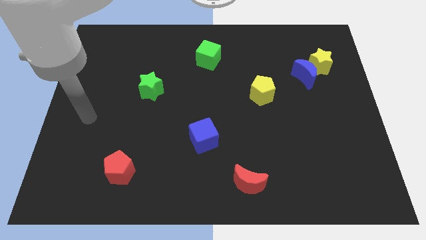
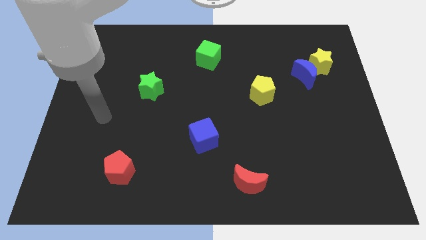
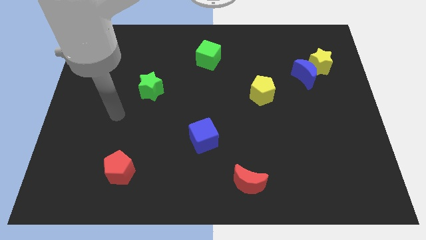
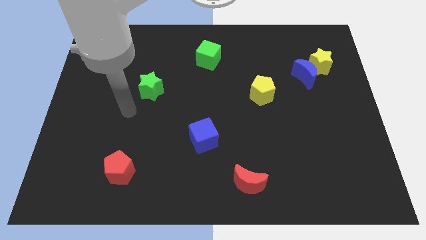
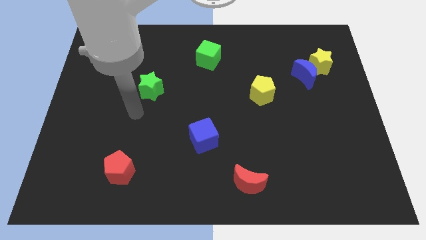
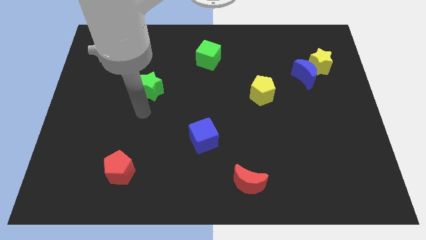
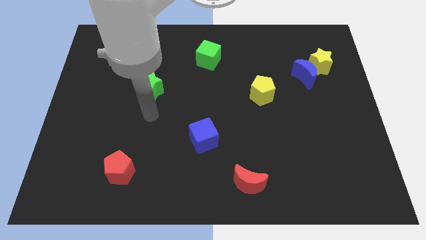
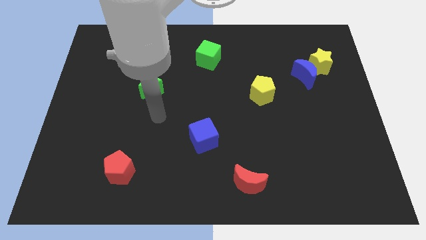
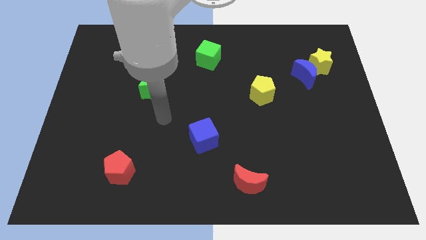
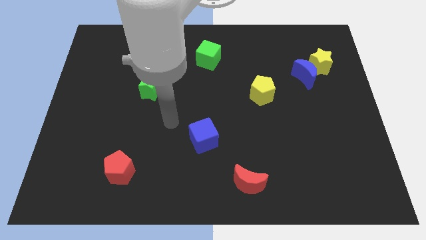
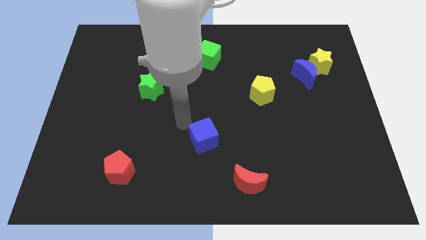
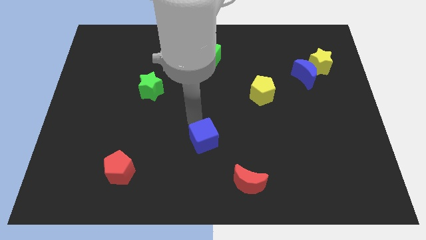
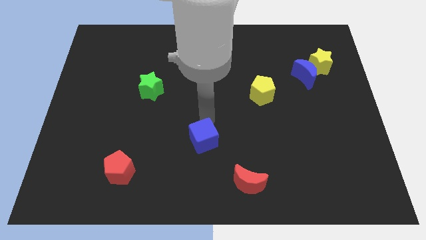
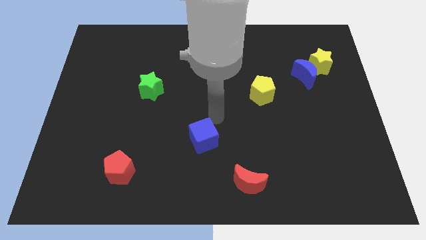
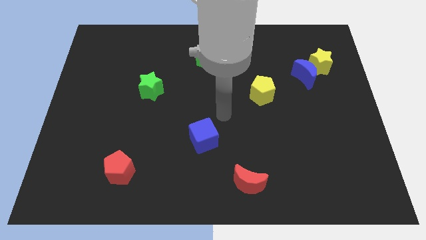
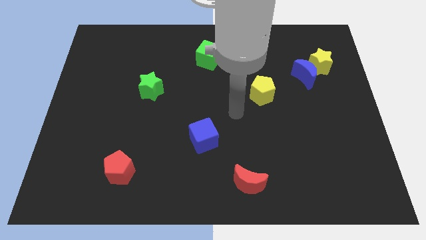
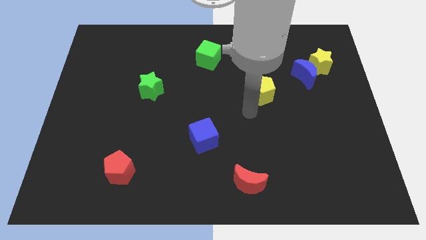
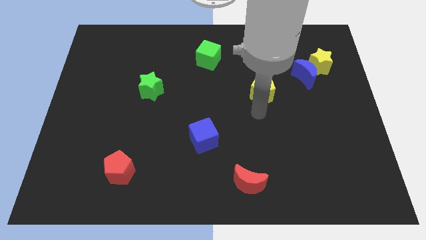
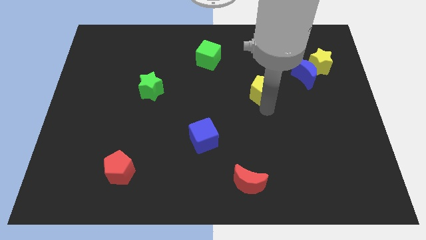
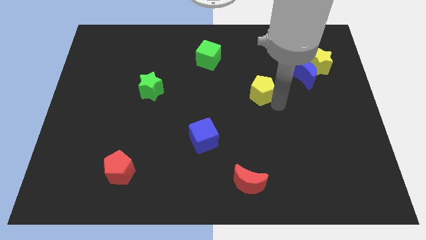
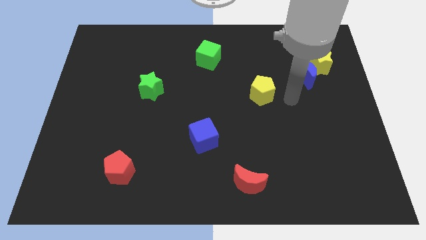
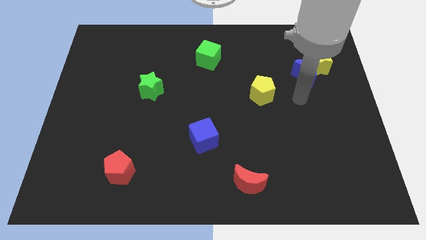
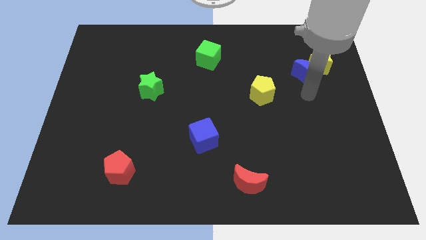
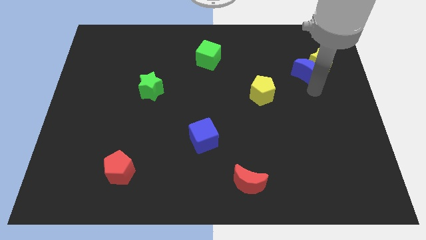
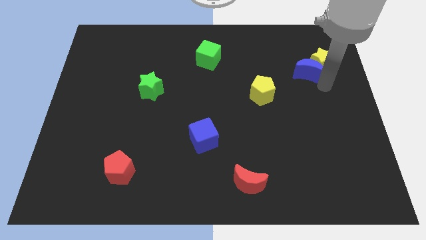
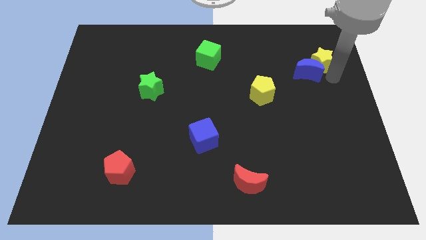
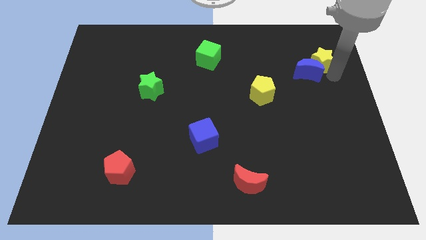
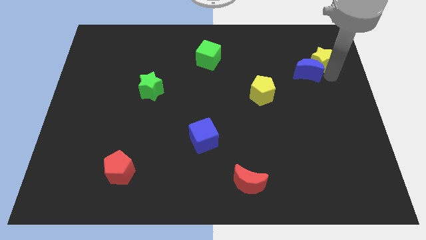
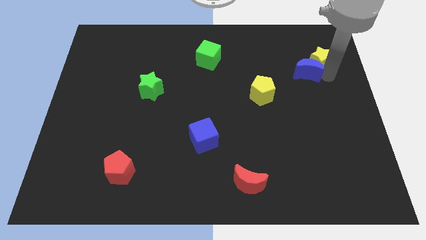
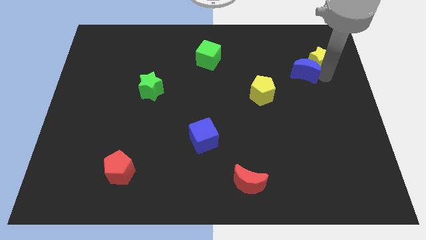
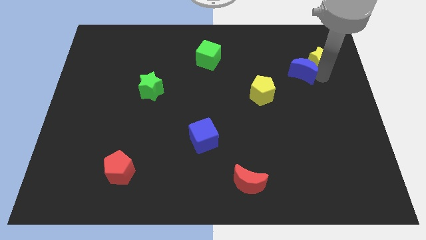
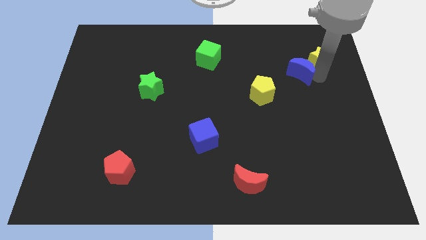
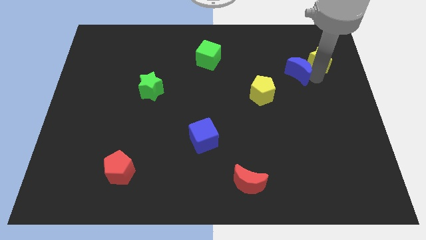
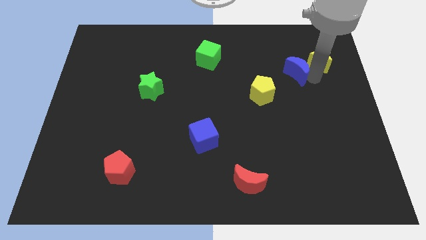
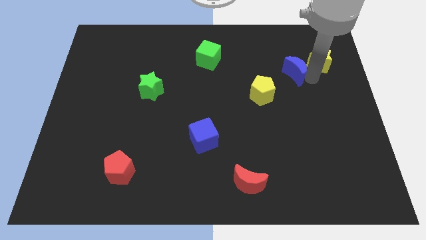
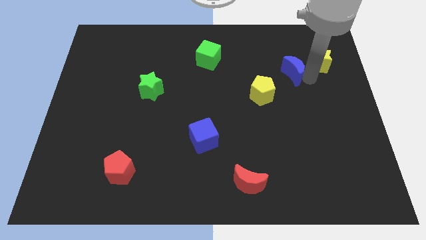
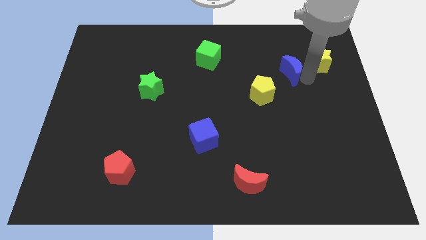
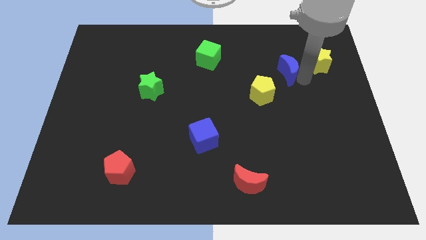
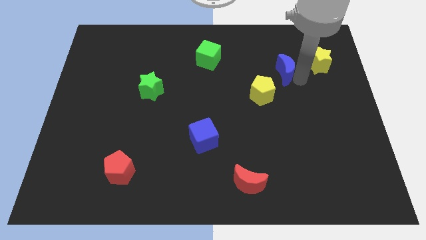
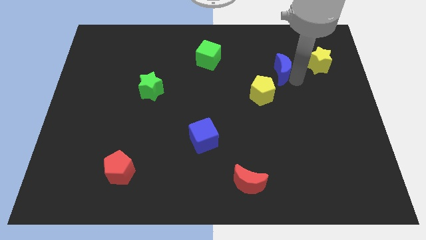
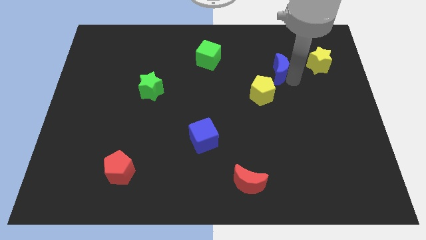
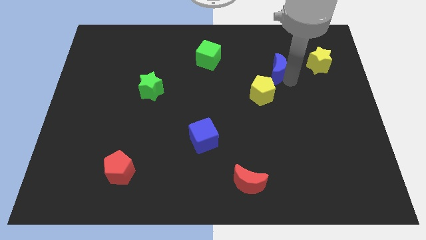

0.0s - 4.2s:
slide the blue moon to the left a little bit

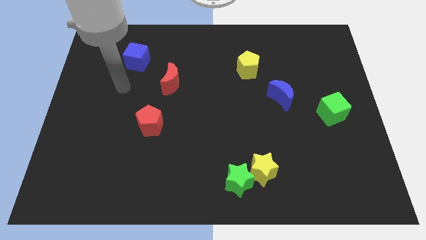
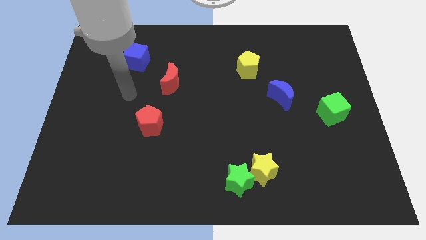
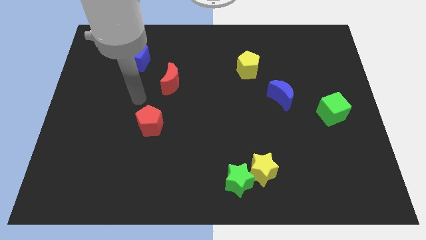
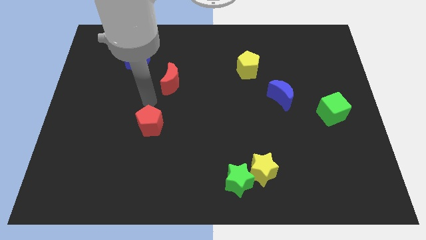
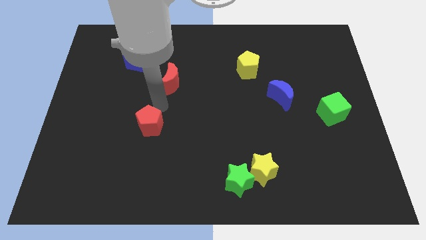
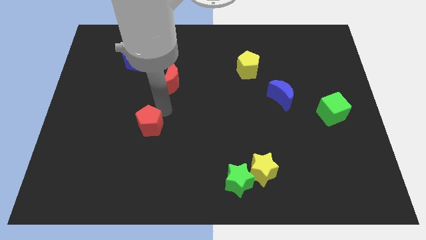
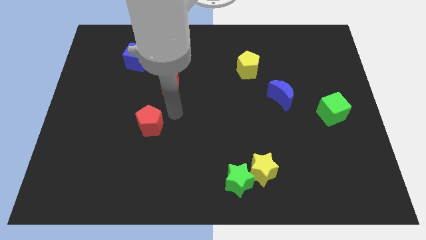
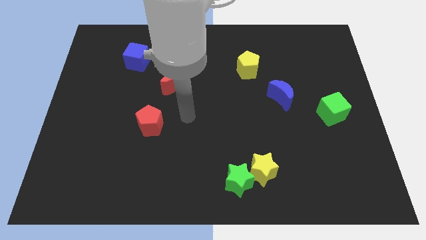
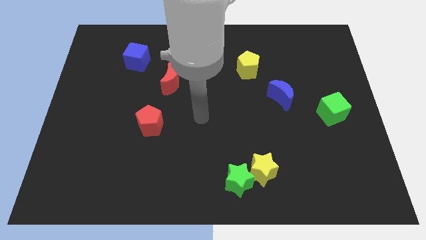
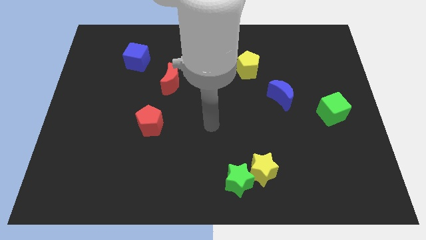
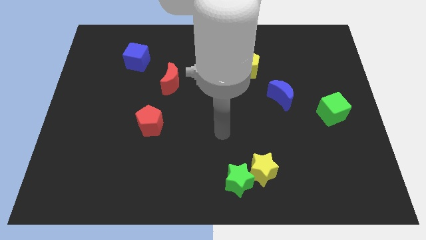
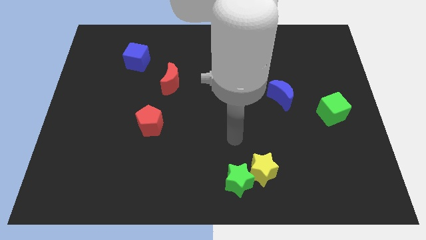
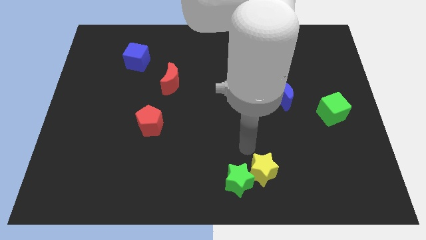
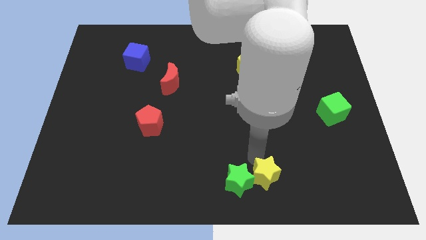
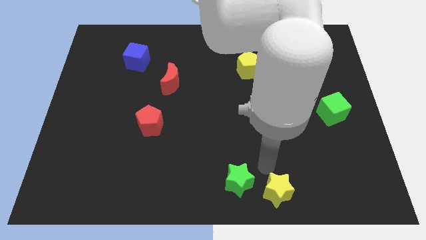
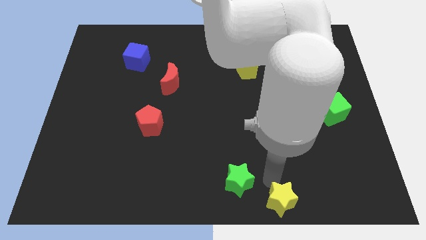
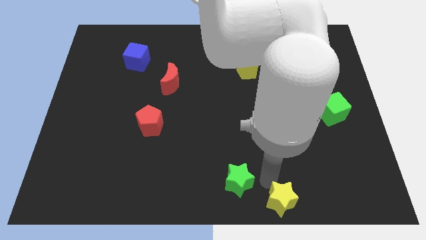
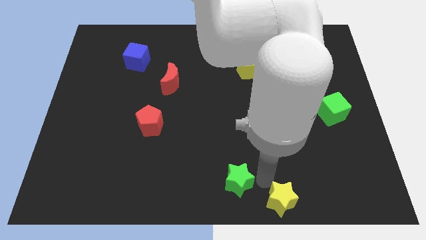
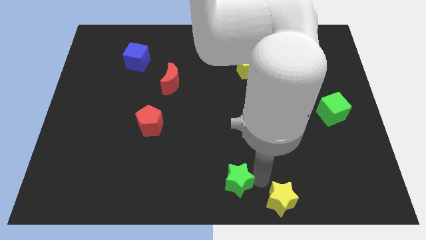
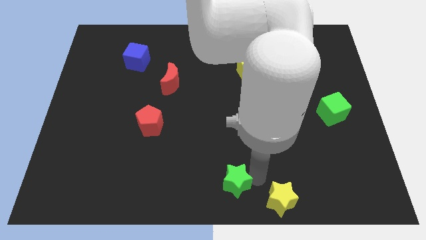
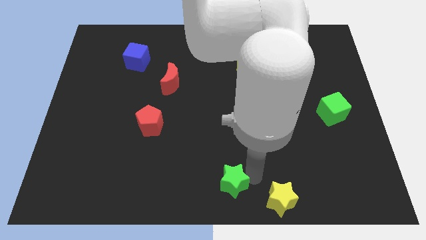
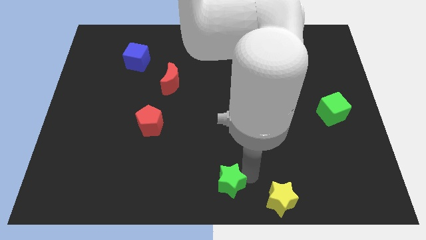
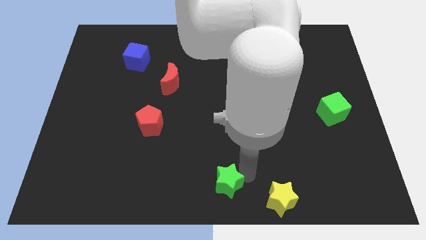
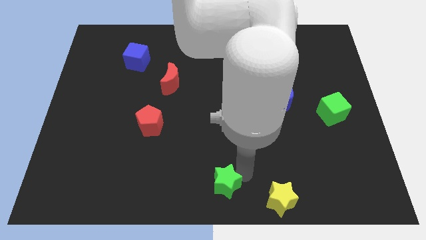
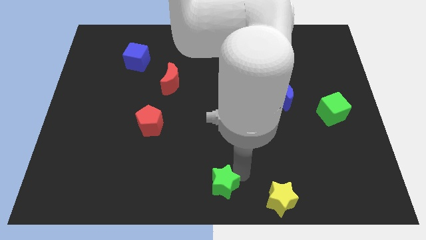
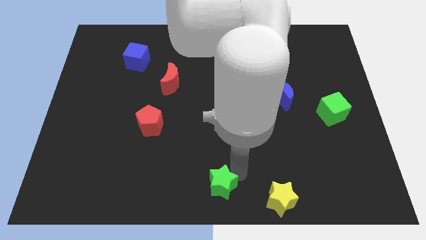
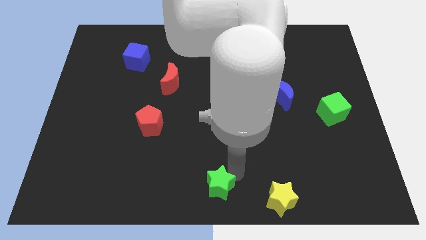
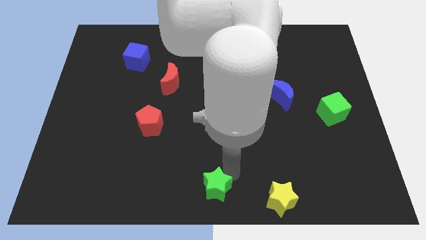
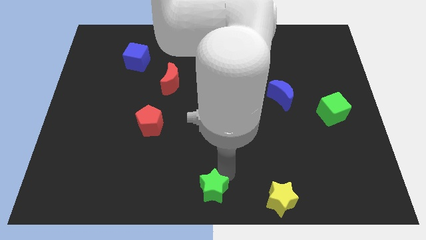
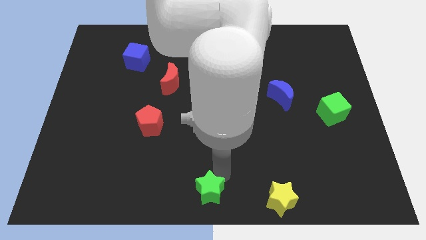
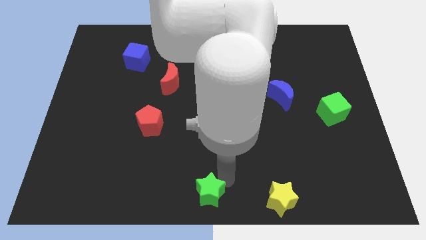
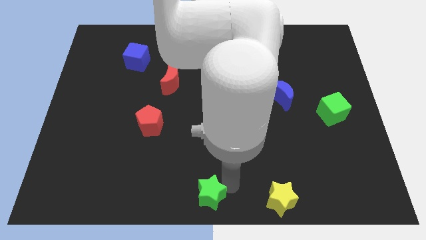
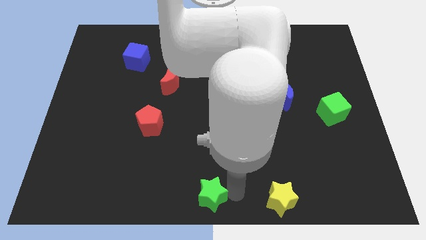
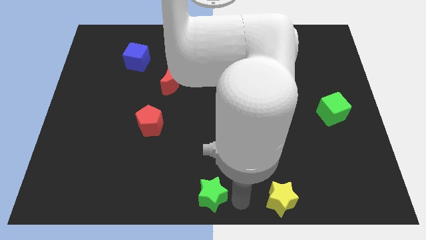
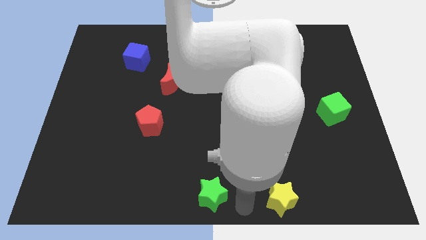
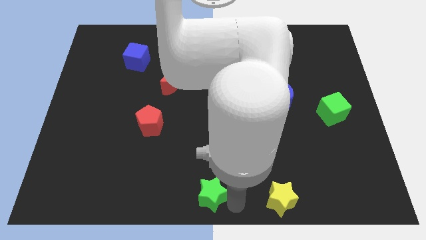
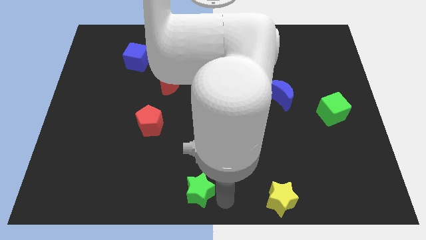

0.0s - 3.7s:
slightly push the green star to the left

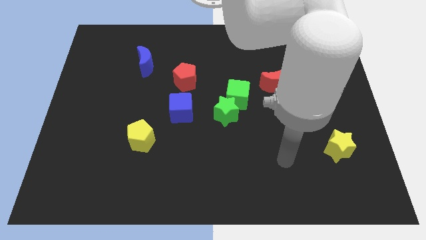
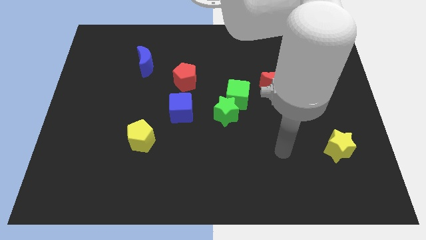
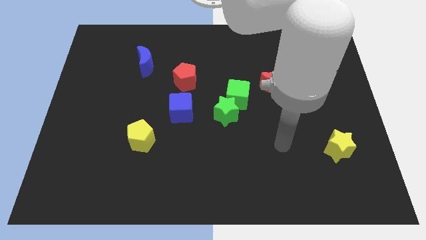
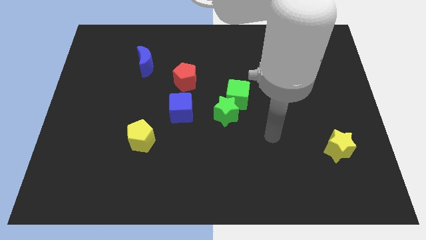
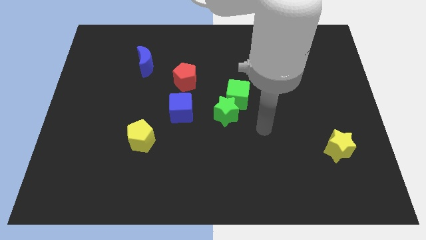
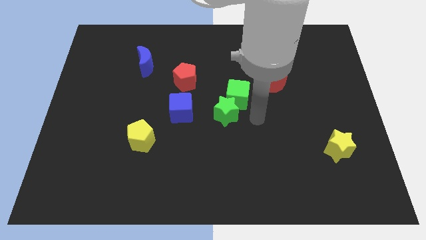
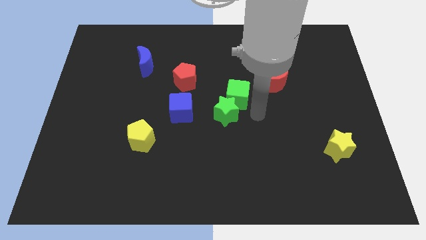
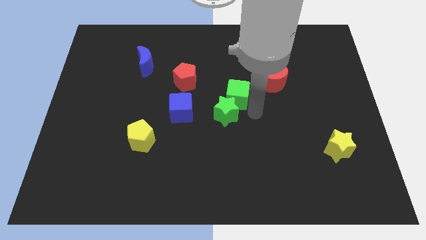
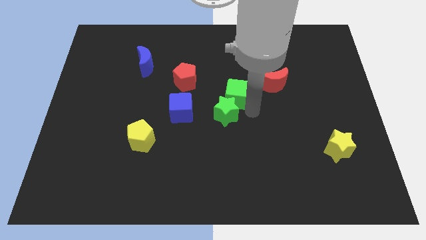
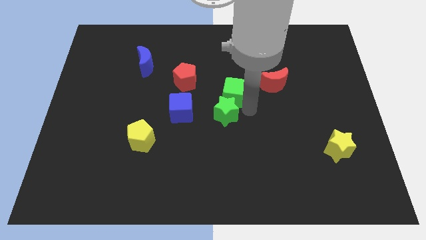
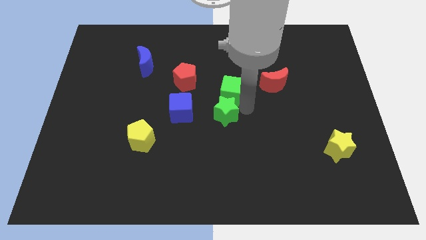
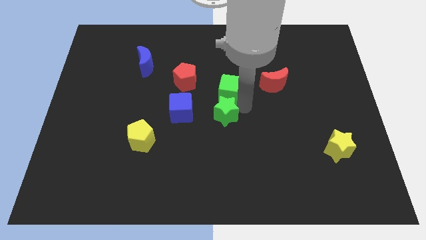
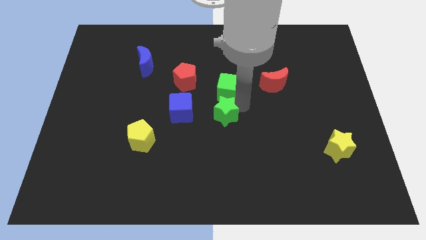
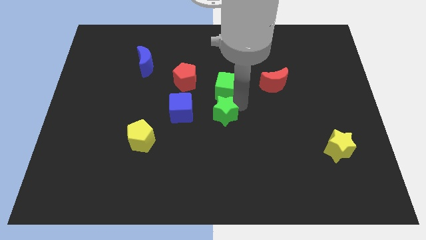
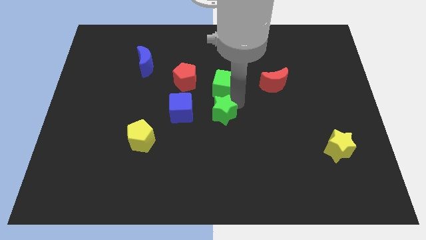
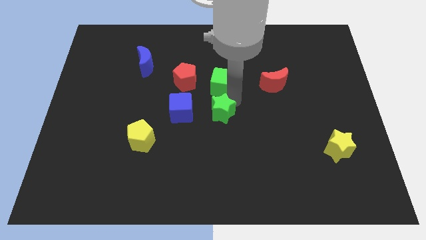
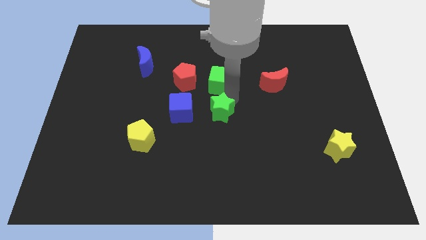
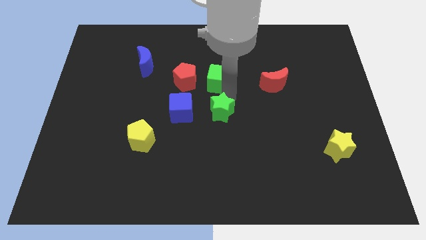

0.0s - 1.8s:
slightly move the green cube up and left diagonally
